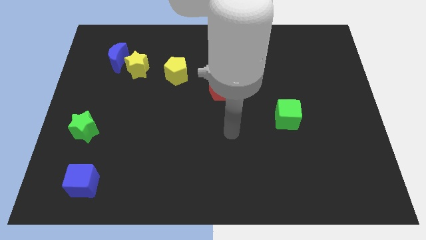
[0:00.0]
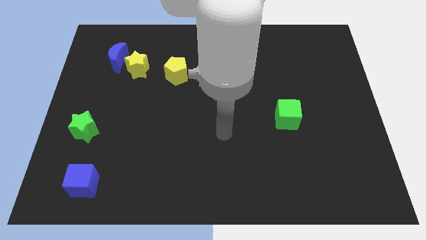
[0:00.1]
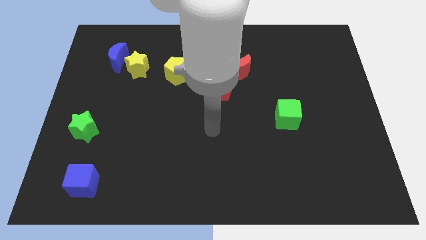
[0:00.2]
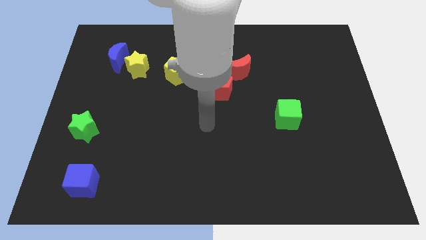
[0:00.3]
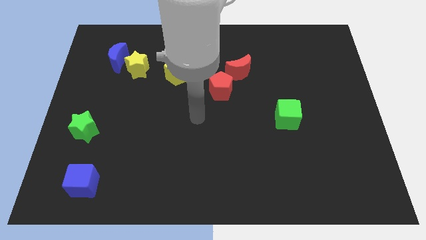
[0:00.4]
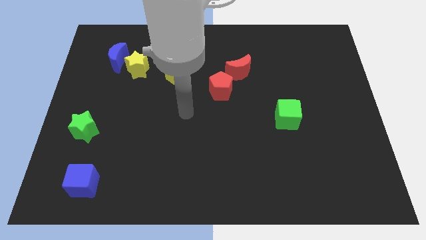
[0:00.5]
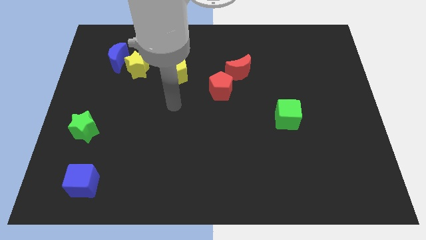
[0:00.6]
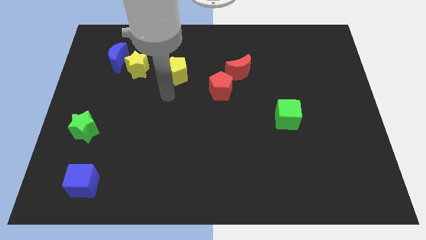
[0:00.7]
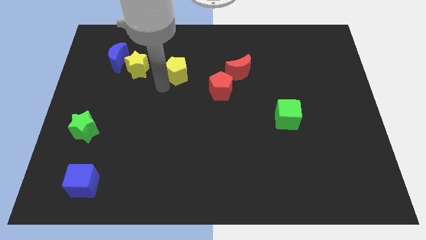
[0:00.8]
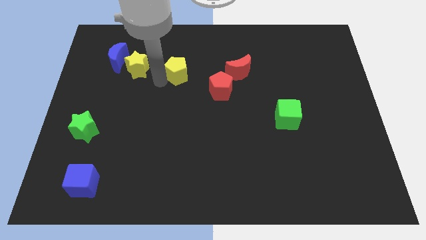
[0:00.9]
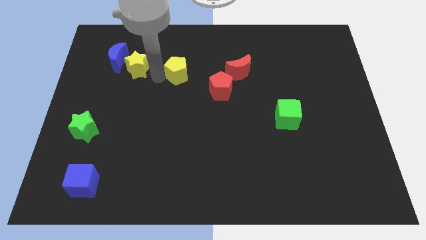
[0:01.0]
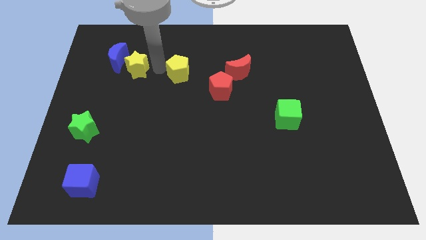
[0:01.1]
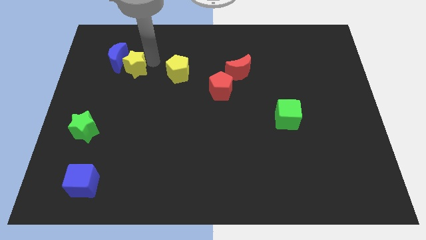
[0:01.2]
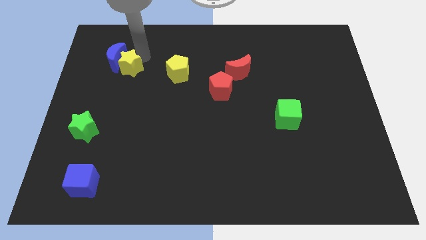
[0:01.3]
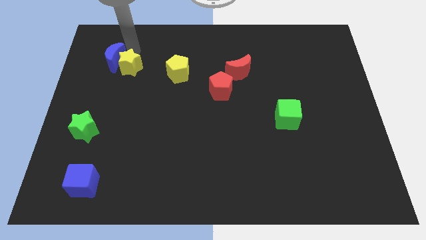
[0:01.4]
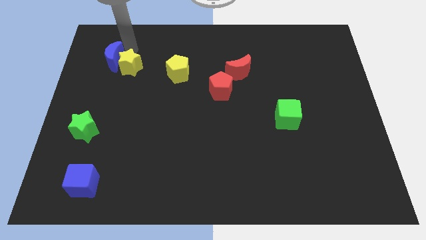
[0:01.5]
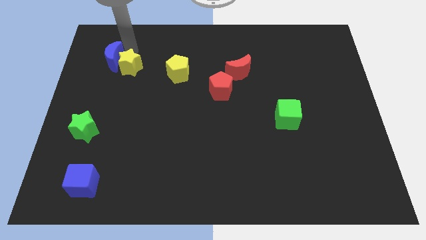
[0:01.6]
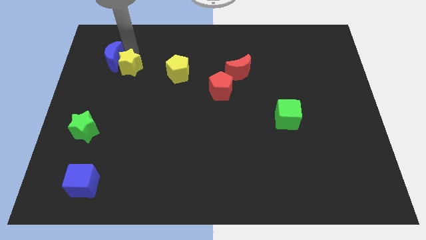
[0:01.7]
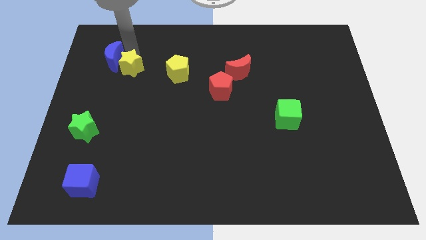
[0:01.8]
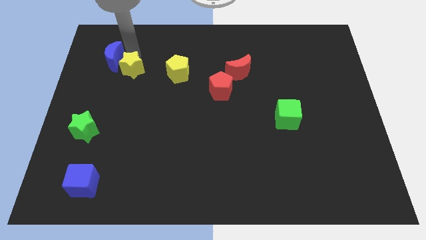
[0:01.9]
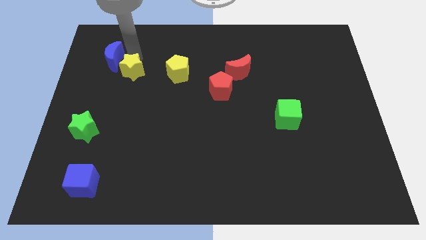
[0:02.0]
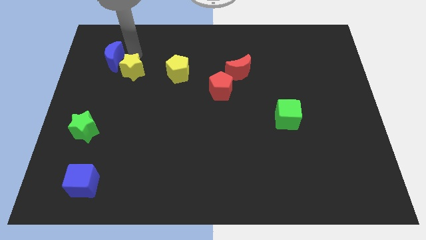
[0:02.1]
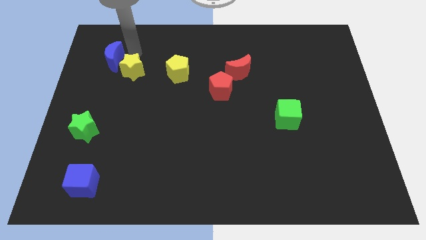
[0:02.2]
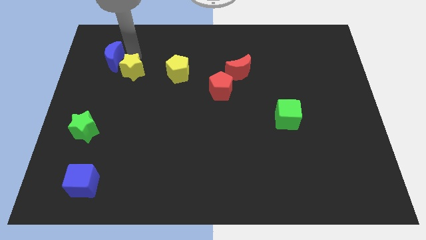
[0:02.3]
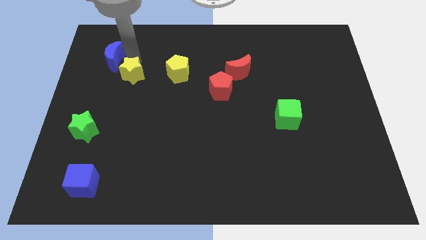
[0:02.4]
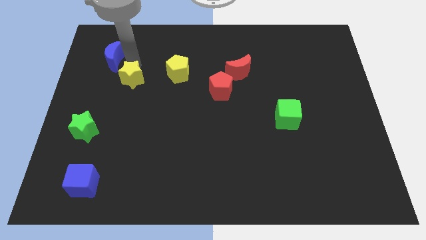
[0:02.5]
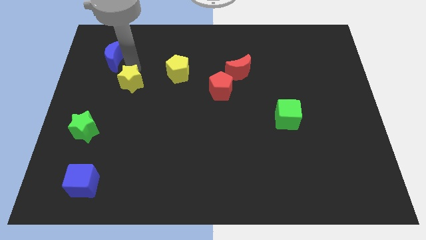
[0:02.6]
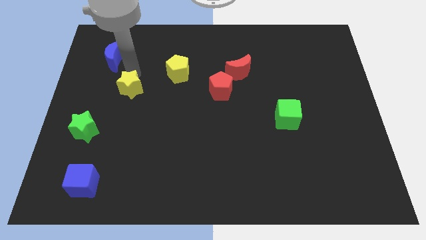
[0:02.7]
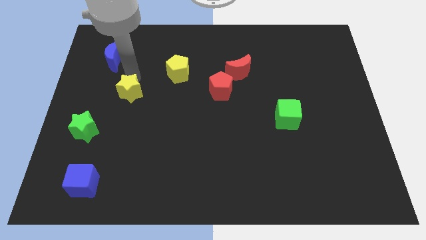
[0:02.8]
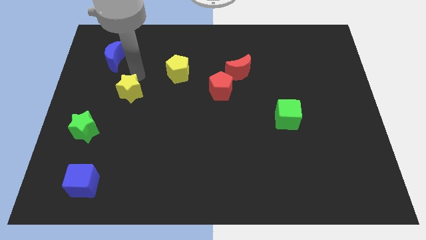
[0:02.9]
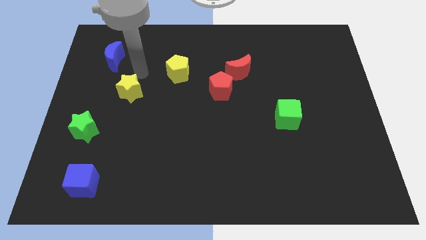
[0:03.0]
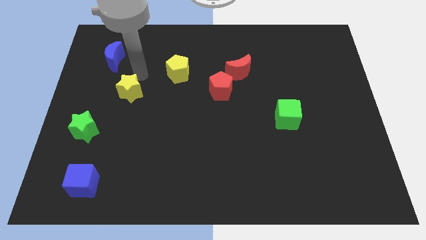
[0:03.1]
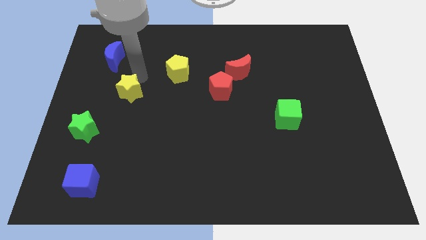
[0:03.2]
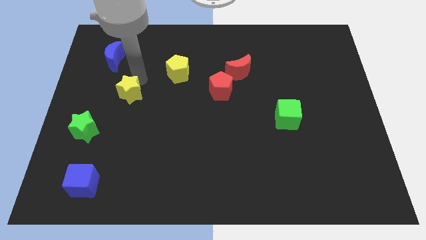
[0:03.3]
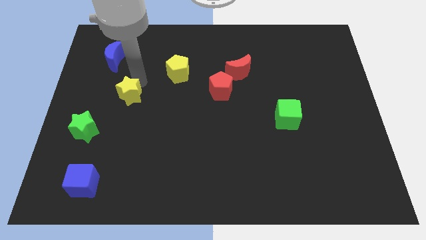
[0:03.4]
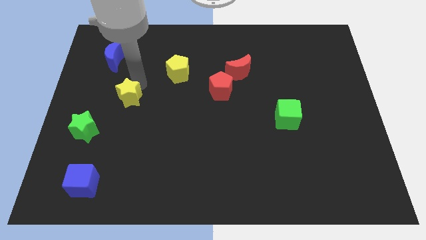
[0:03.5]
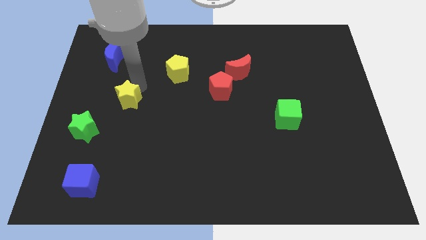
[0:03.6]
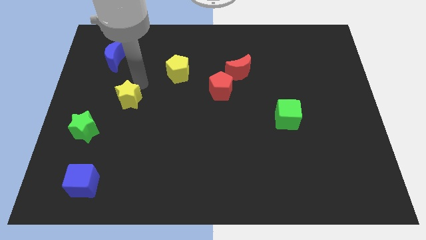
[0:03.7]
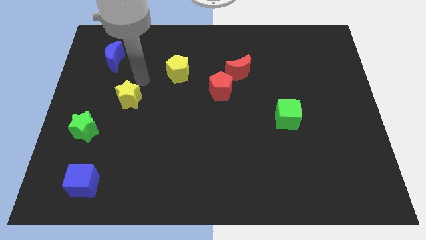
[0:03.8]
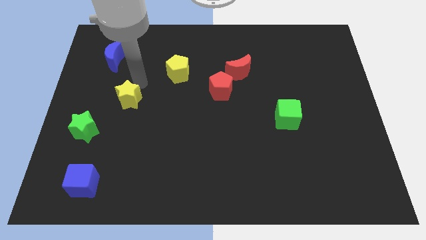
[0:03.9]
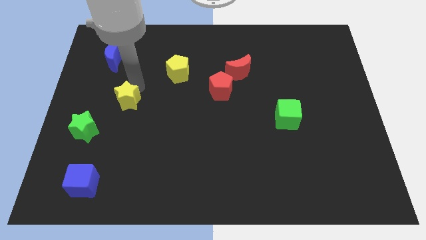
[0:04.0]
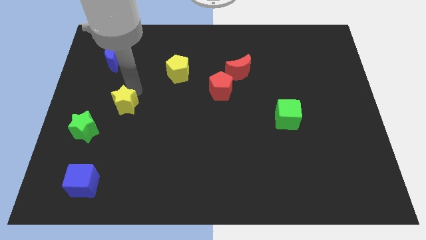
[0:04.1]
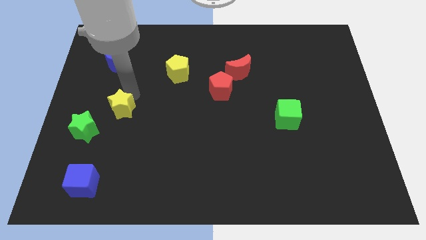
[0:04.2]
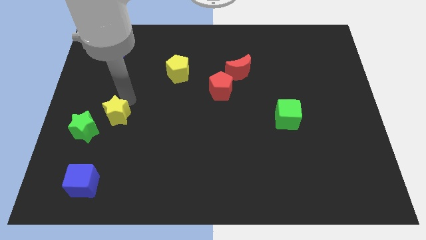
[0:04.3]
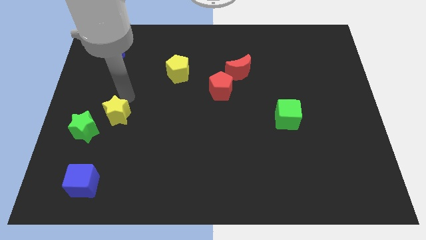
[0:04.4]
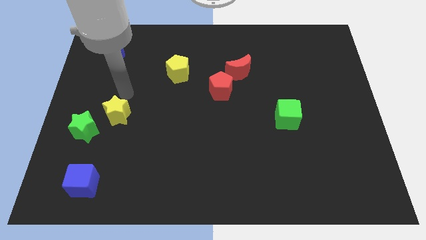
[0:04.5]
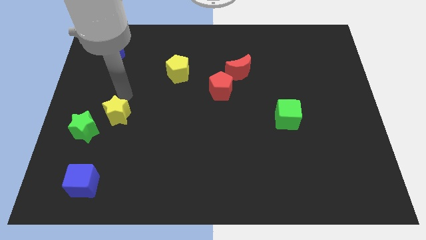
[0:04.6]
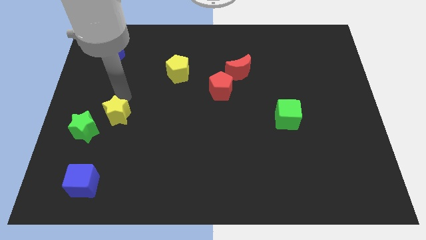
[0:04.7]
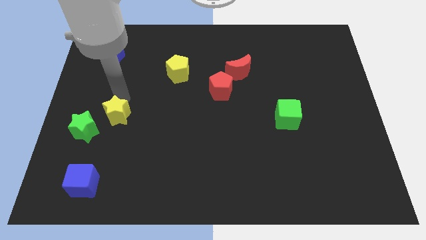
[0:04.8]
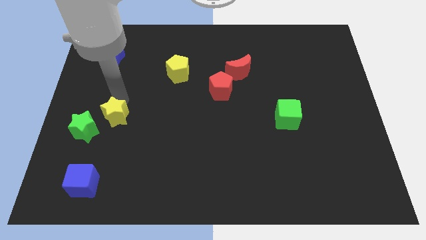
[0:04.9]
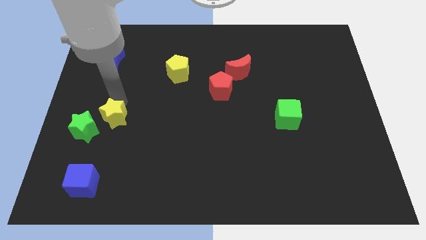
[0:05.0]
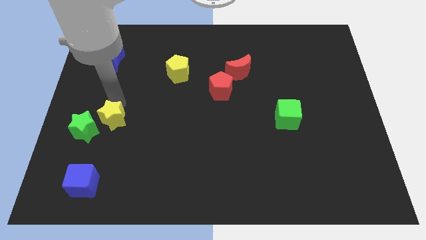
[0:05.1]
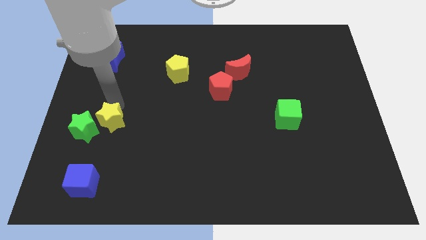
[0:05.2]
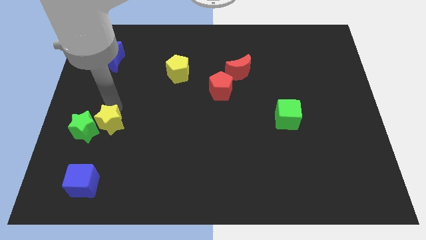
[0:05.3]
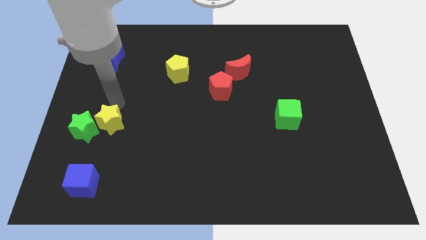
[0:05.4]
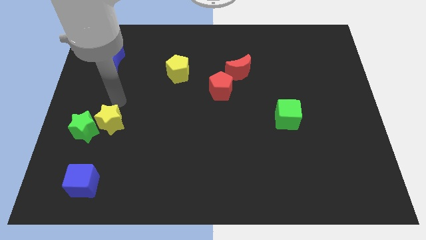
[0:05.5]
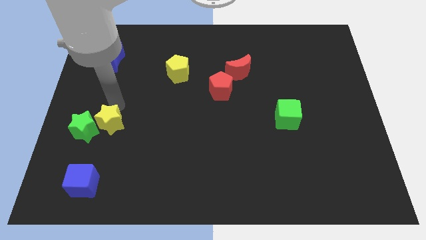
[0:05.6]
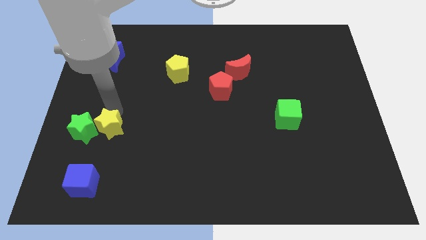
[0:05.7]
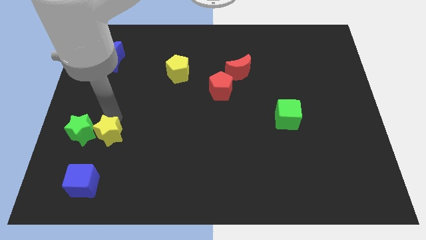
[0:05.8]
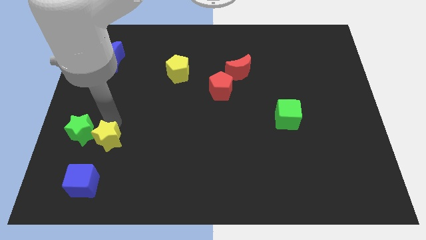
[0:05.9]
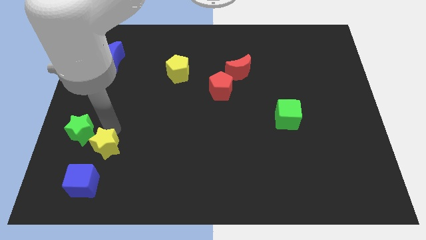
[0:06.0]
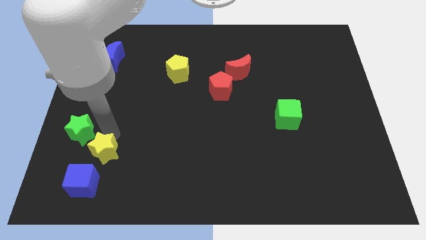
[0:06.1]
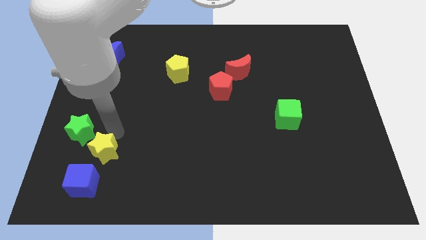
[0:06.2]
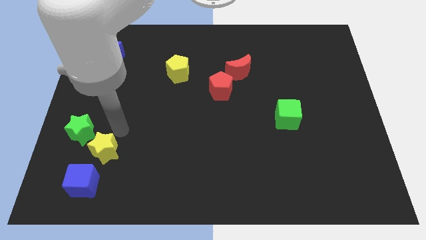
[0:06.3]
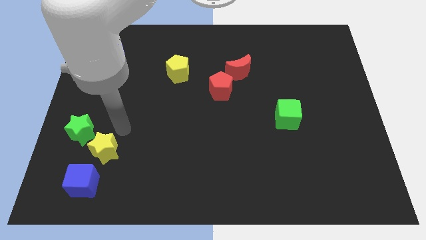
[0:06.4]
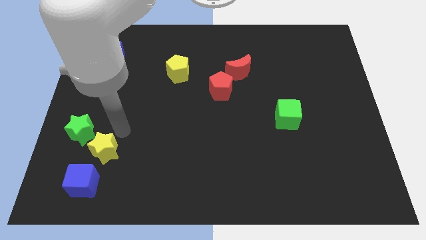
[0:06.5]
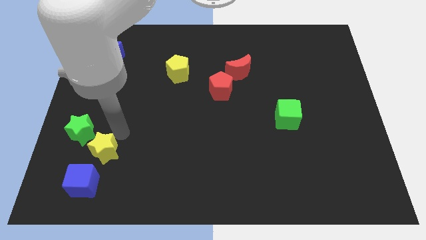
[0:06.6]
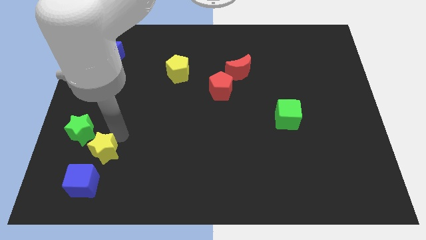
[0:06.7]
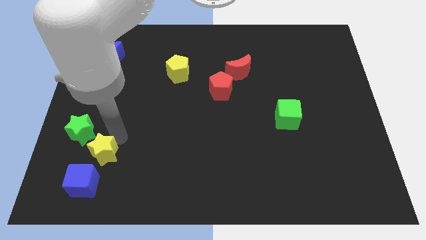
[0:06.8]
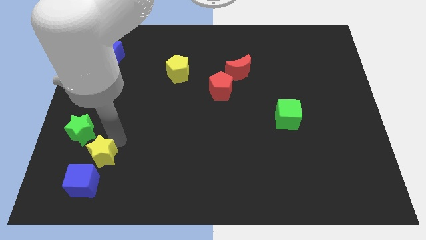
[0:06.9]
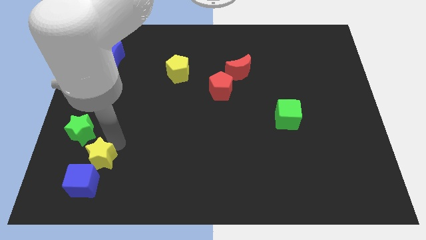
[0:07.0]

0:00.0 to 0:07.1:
push the yellow star next to the blue cube
